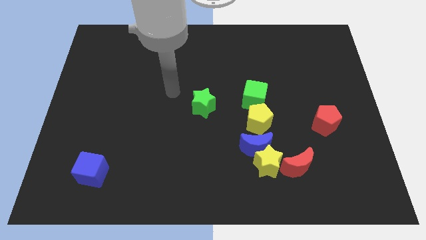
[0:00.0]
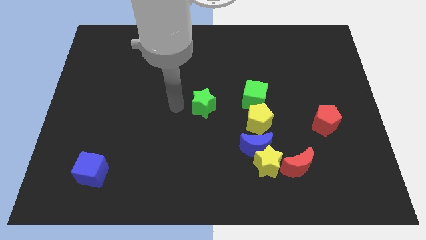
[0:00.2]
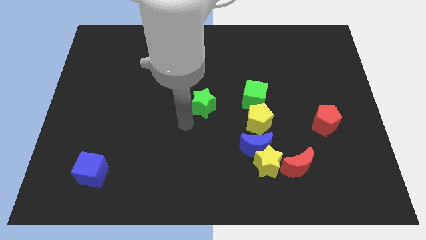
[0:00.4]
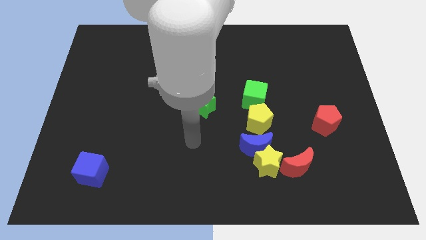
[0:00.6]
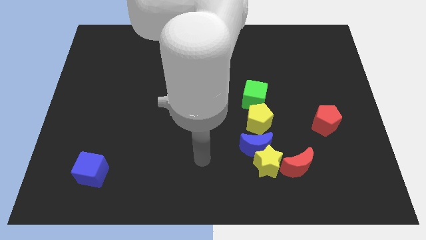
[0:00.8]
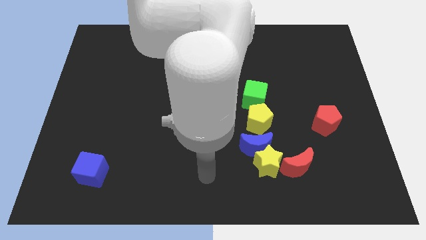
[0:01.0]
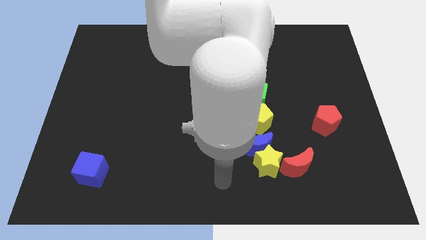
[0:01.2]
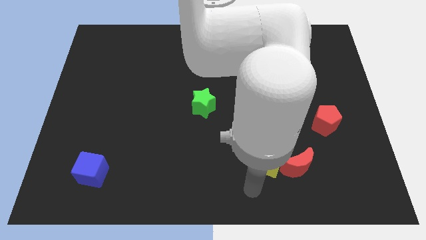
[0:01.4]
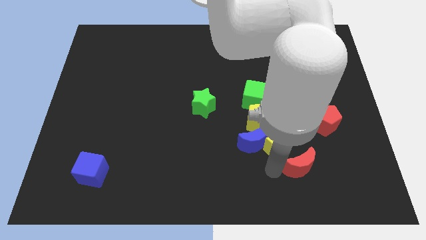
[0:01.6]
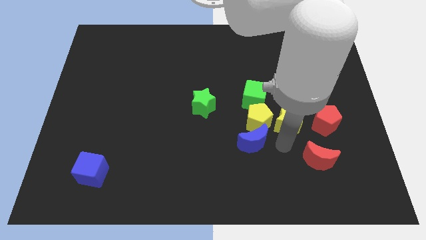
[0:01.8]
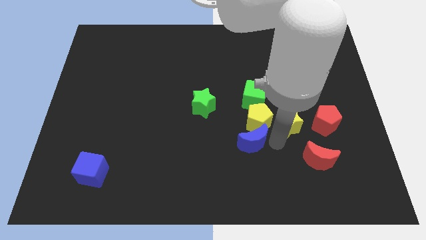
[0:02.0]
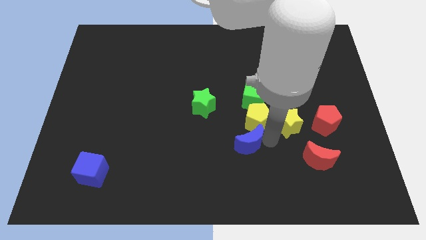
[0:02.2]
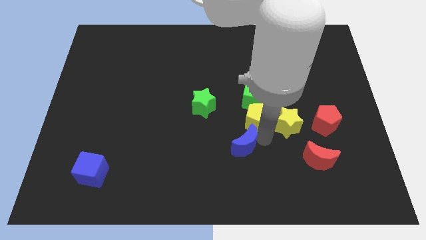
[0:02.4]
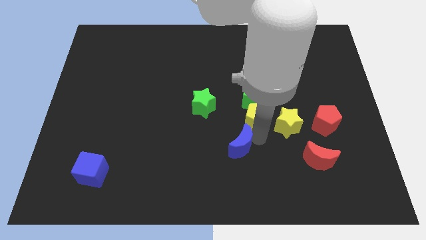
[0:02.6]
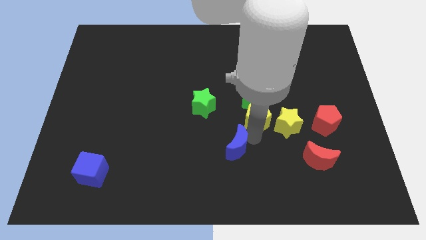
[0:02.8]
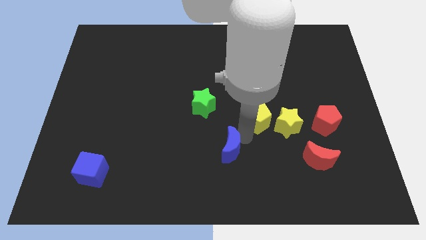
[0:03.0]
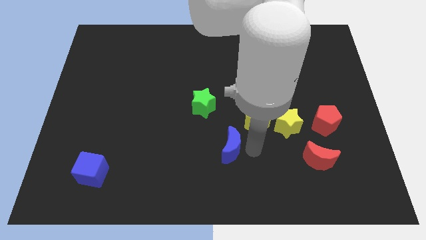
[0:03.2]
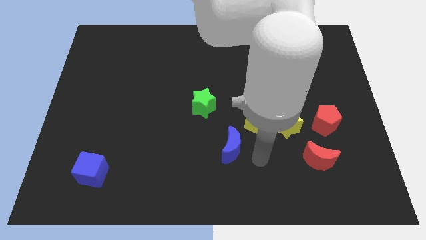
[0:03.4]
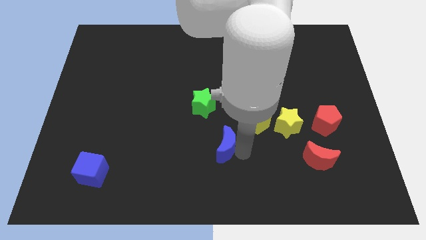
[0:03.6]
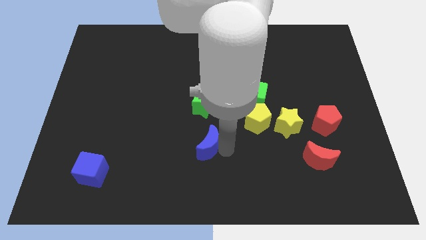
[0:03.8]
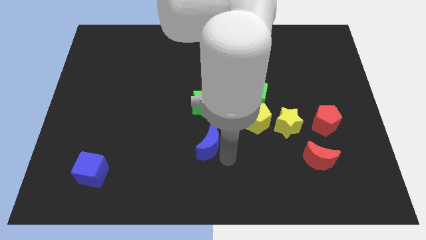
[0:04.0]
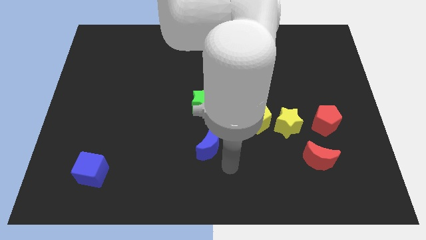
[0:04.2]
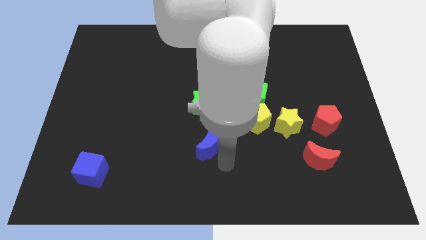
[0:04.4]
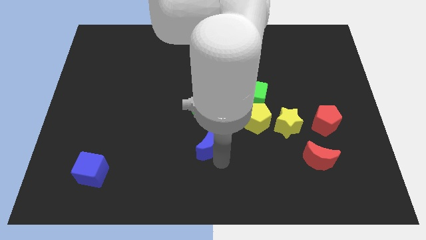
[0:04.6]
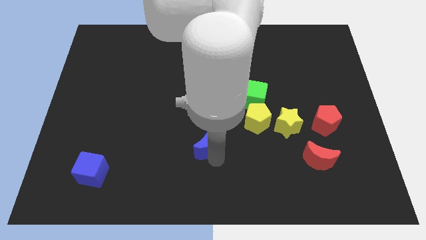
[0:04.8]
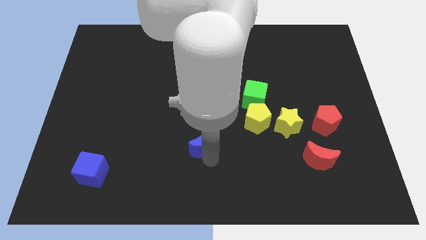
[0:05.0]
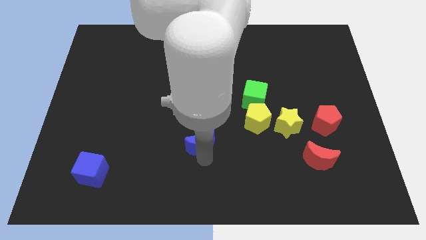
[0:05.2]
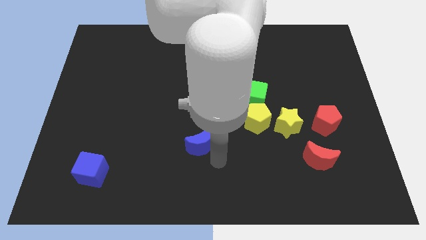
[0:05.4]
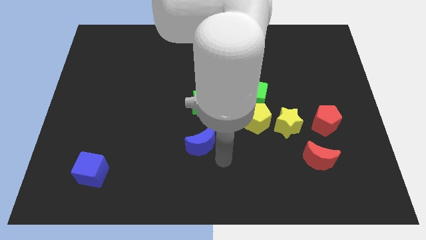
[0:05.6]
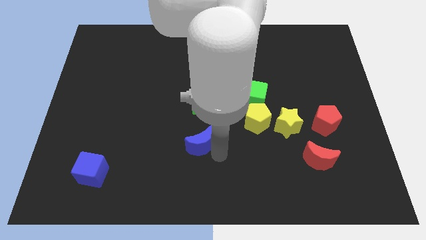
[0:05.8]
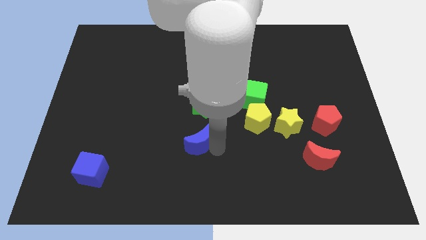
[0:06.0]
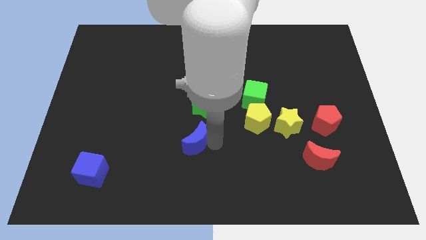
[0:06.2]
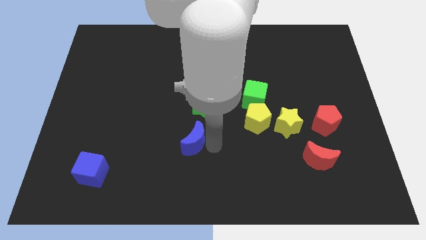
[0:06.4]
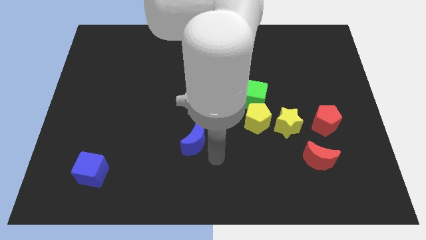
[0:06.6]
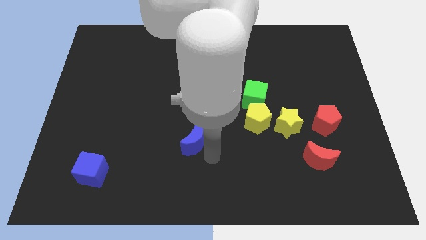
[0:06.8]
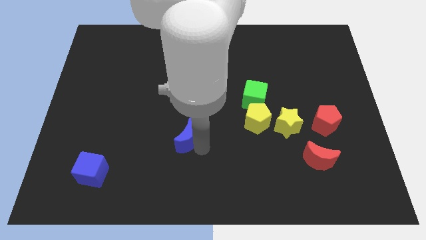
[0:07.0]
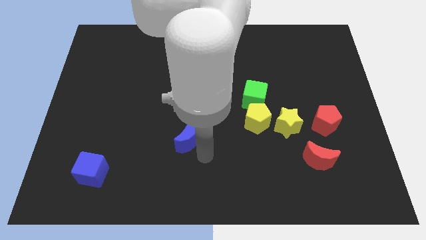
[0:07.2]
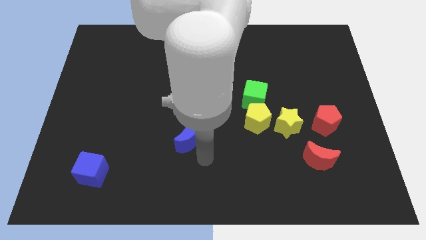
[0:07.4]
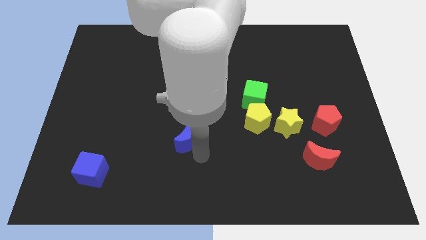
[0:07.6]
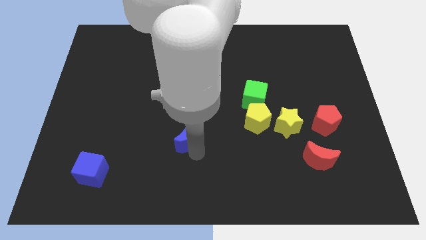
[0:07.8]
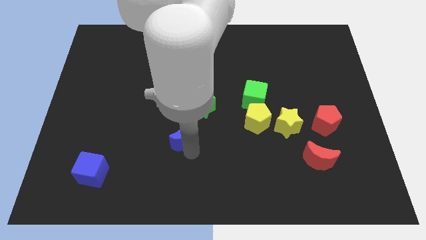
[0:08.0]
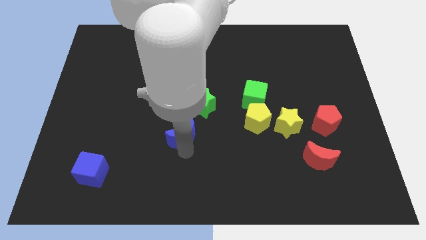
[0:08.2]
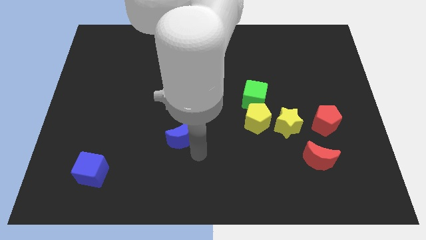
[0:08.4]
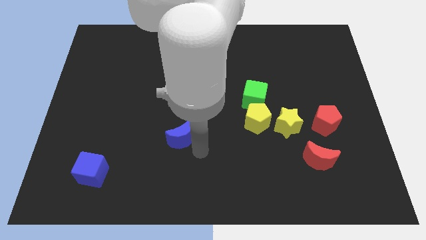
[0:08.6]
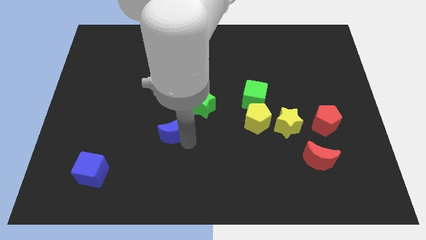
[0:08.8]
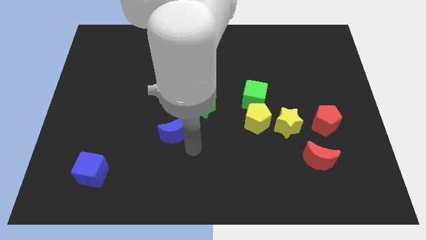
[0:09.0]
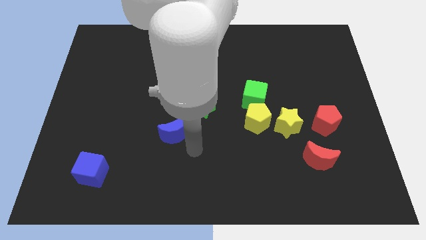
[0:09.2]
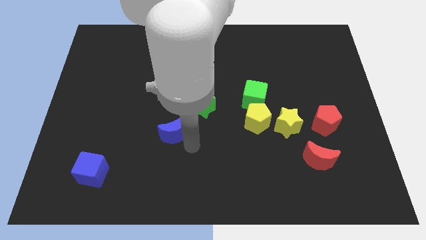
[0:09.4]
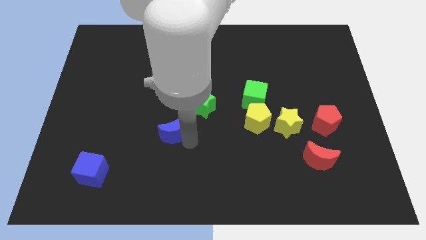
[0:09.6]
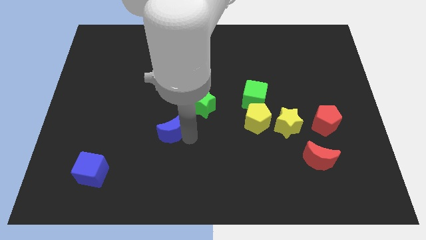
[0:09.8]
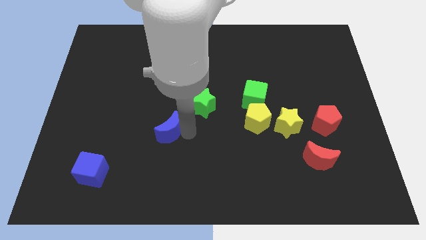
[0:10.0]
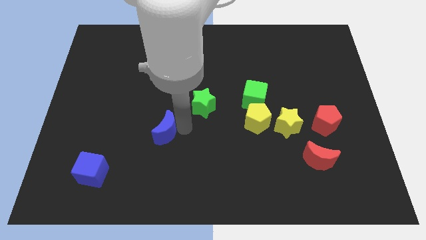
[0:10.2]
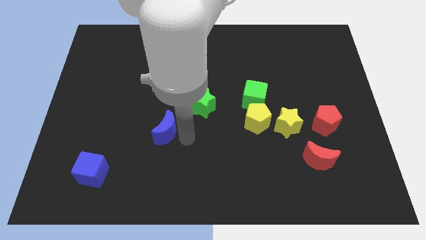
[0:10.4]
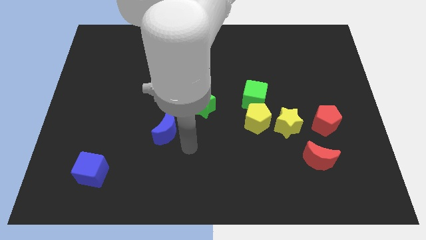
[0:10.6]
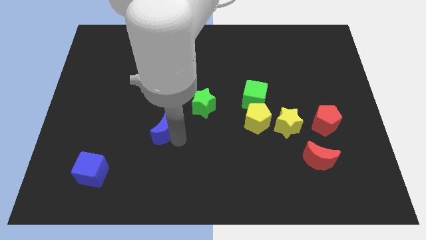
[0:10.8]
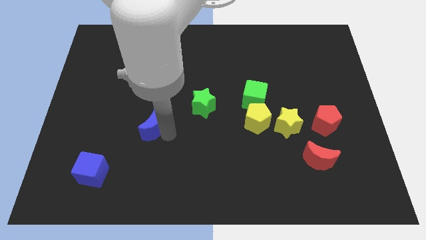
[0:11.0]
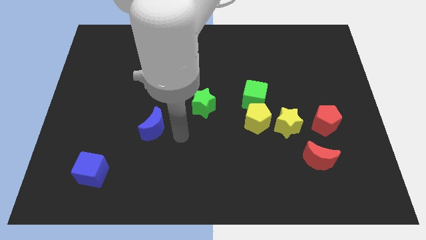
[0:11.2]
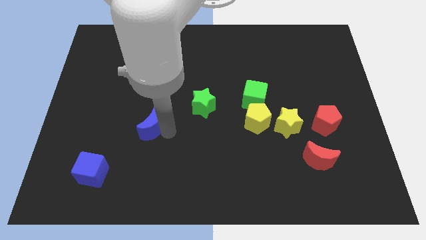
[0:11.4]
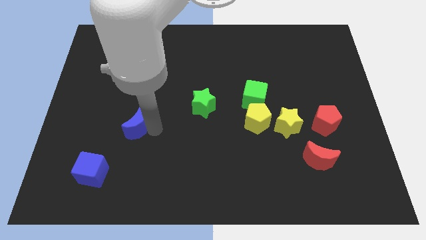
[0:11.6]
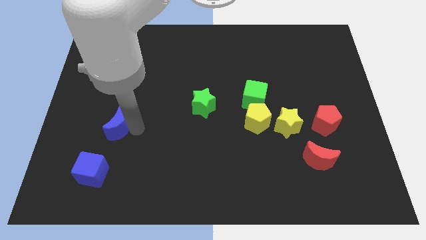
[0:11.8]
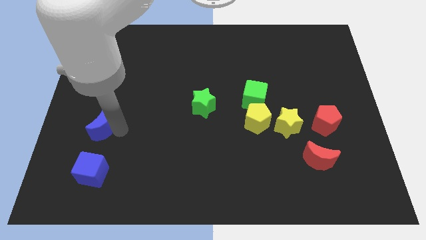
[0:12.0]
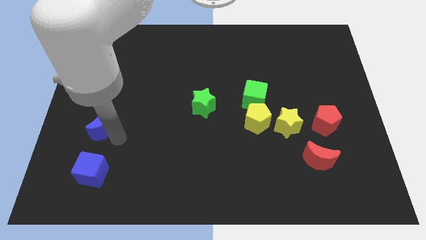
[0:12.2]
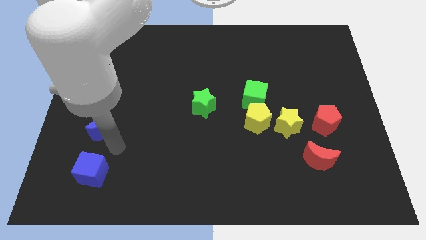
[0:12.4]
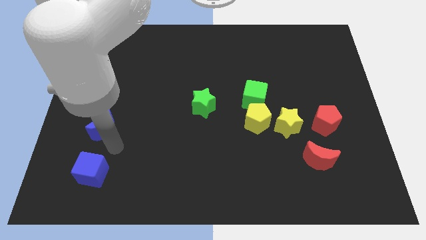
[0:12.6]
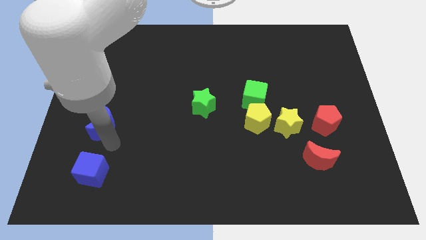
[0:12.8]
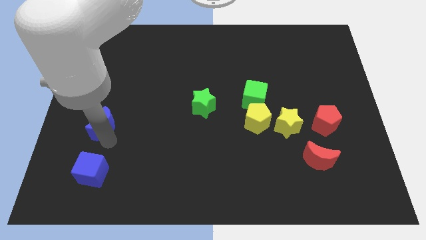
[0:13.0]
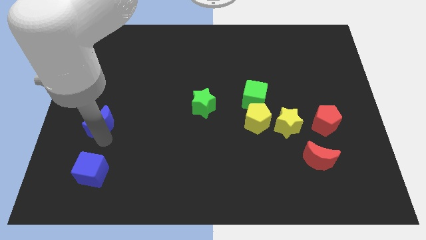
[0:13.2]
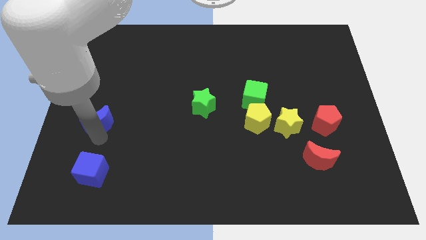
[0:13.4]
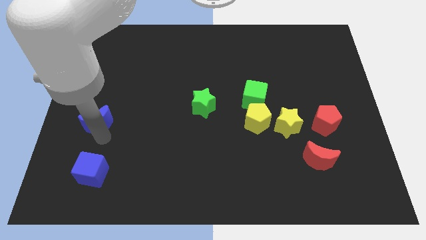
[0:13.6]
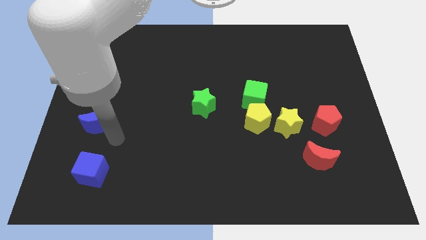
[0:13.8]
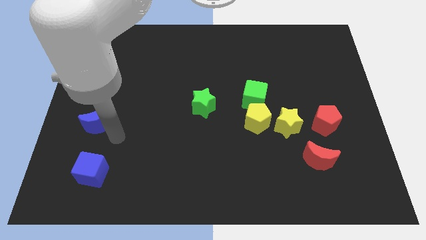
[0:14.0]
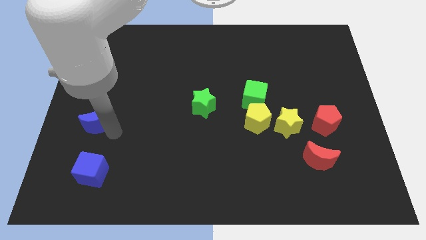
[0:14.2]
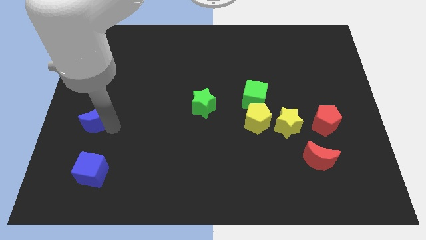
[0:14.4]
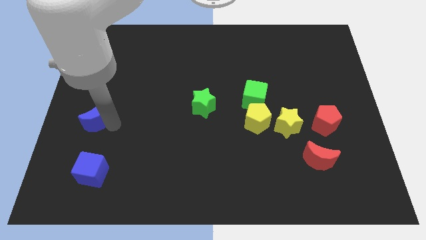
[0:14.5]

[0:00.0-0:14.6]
put the blue moon to the left side of the board
